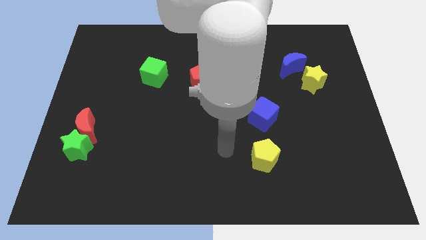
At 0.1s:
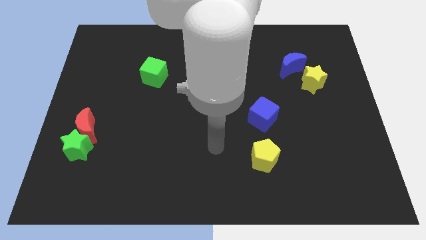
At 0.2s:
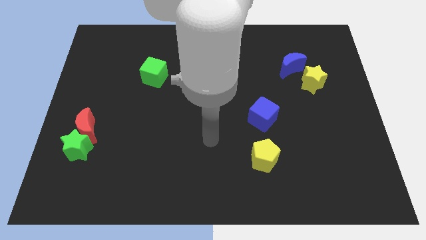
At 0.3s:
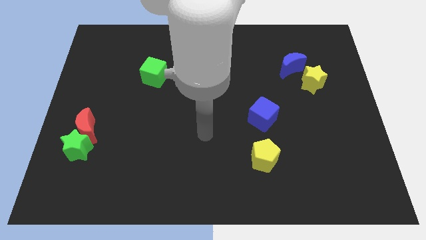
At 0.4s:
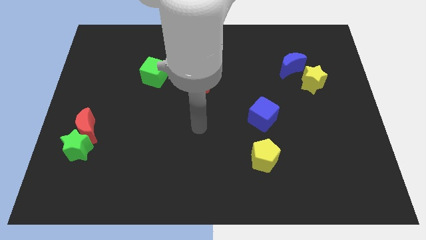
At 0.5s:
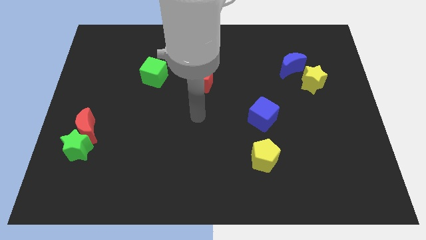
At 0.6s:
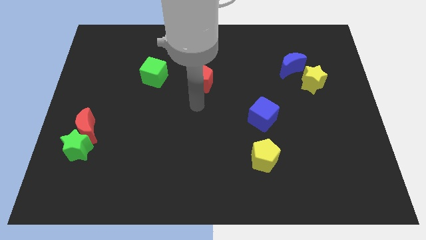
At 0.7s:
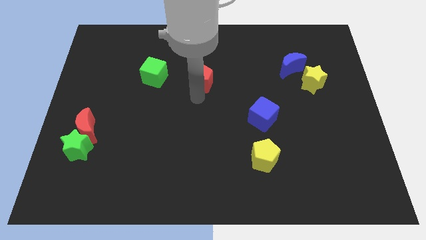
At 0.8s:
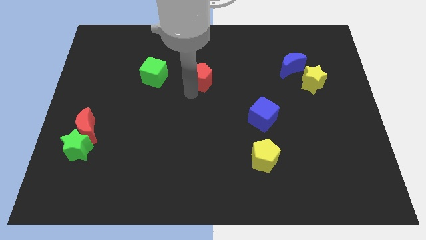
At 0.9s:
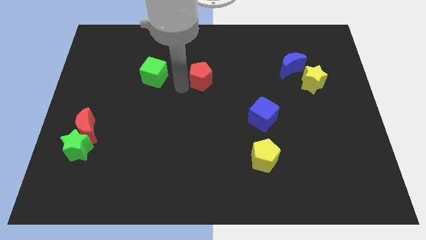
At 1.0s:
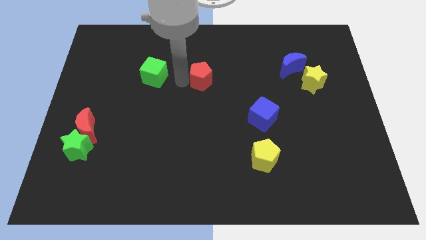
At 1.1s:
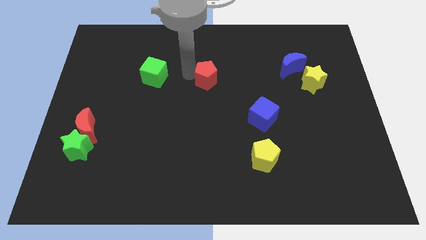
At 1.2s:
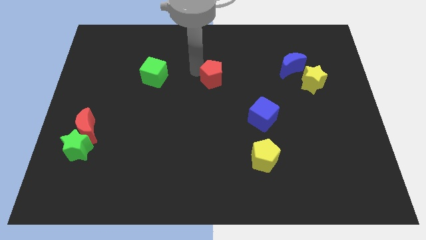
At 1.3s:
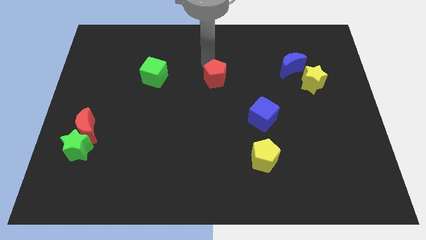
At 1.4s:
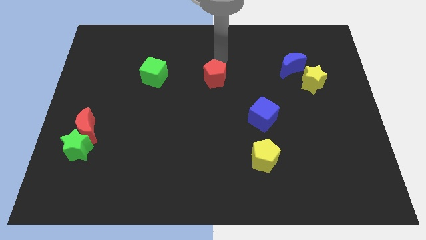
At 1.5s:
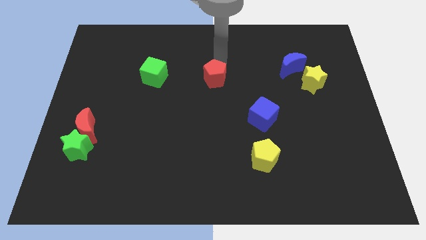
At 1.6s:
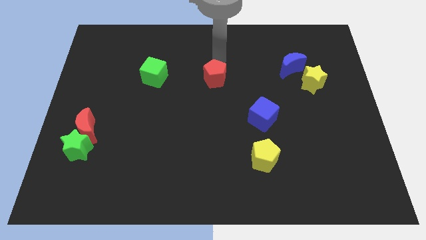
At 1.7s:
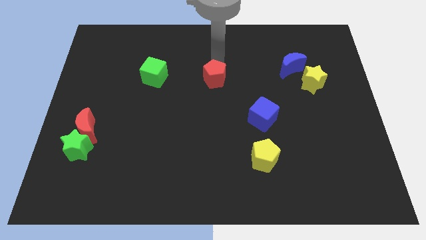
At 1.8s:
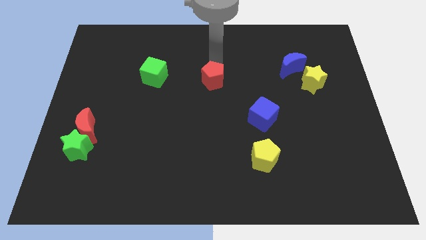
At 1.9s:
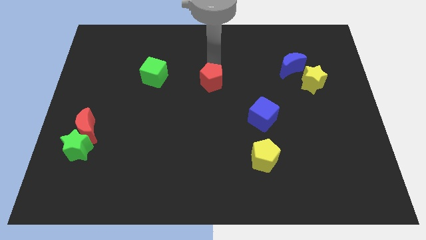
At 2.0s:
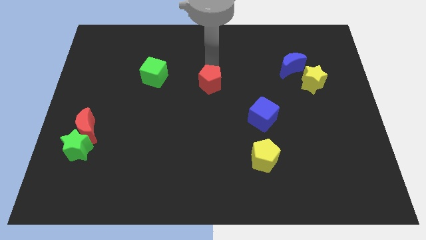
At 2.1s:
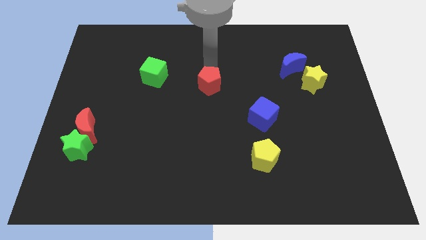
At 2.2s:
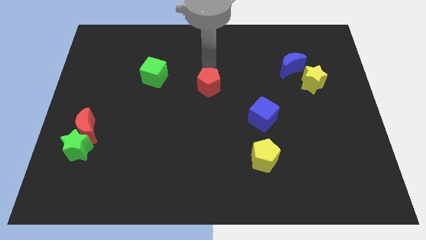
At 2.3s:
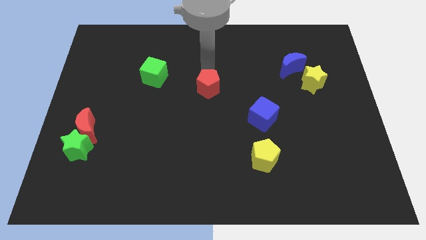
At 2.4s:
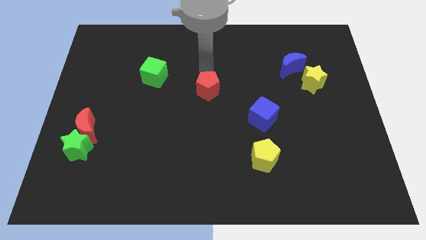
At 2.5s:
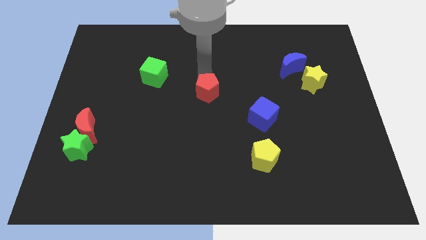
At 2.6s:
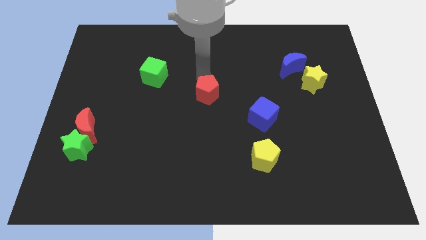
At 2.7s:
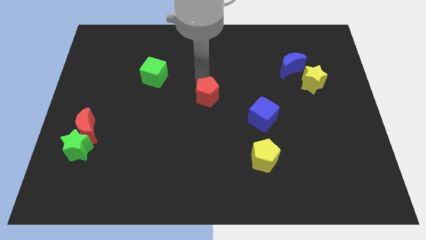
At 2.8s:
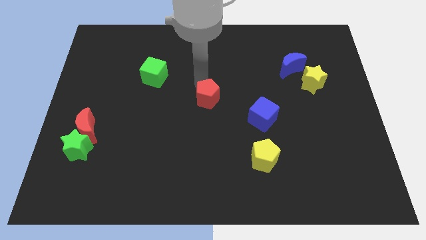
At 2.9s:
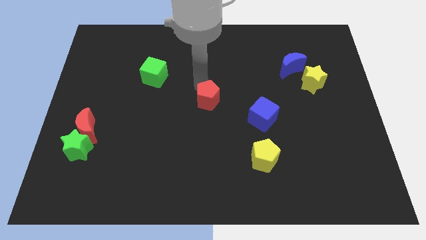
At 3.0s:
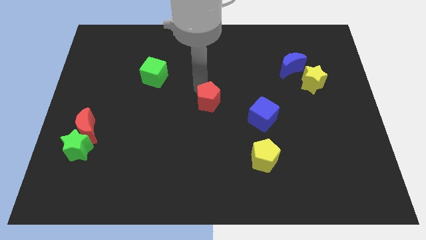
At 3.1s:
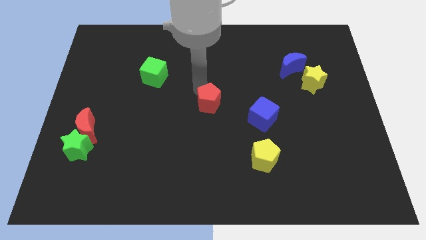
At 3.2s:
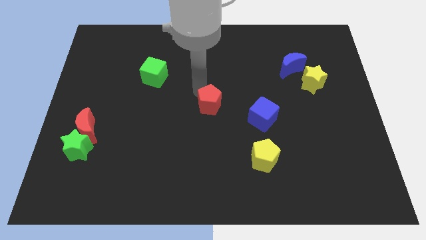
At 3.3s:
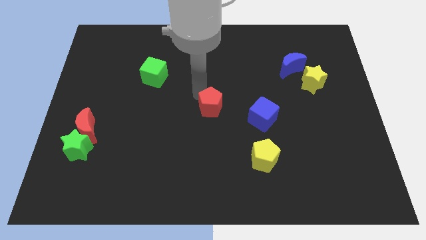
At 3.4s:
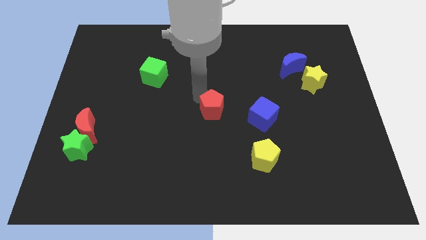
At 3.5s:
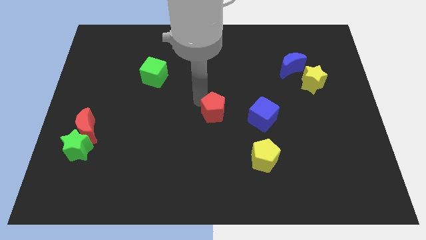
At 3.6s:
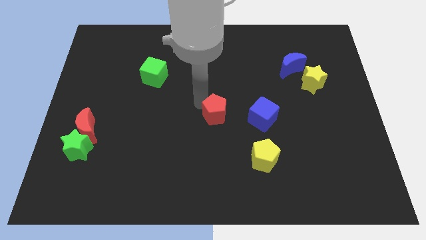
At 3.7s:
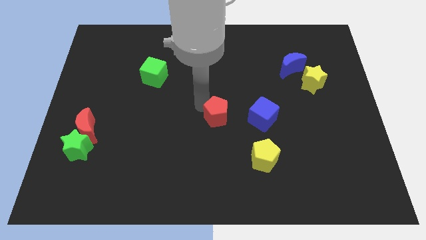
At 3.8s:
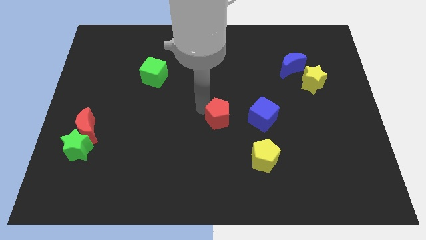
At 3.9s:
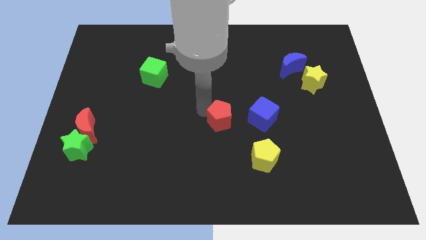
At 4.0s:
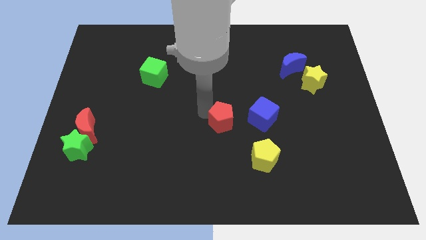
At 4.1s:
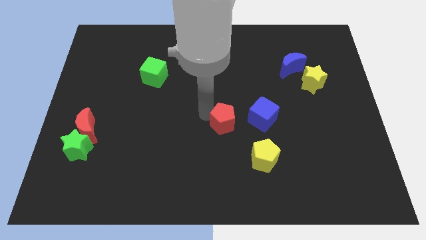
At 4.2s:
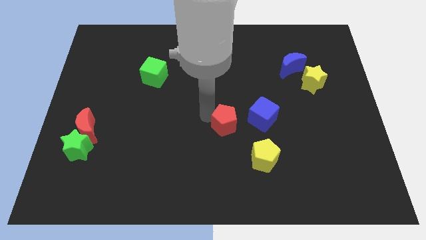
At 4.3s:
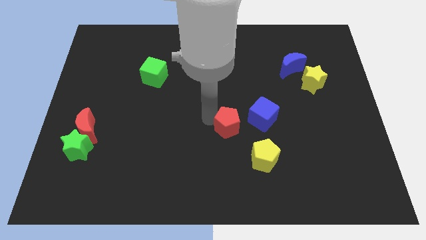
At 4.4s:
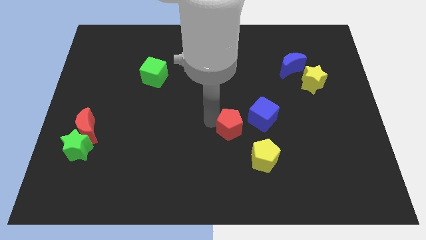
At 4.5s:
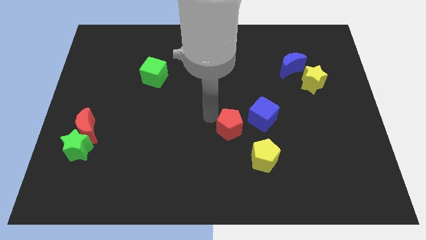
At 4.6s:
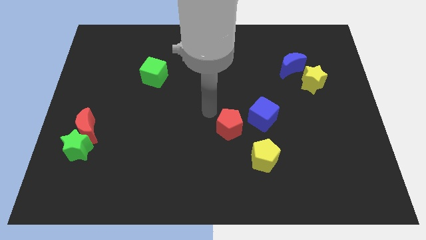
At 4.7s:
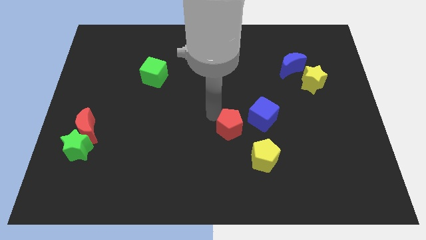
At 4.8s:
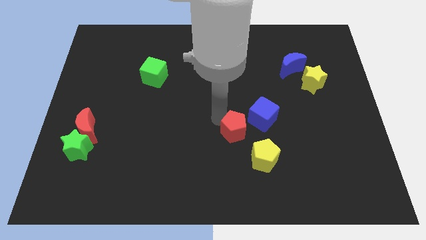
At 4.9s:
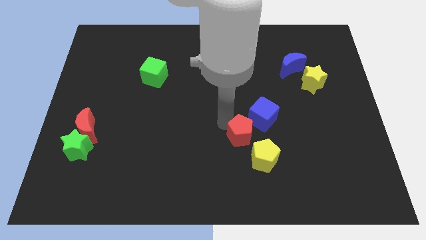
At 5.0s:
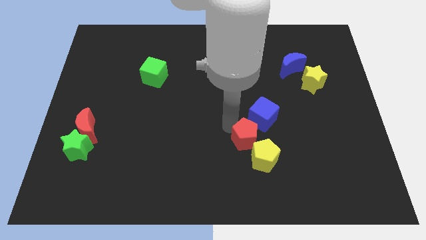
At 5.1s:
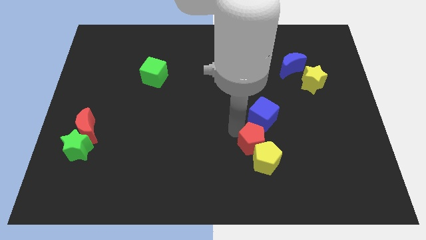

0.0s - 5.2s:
move the red pentagon next to the yellow pentagon

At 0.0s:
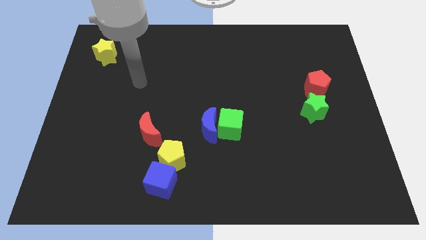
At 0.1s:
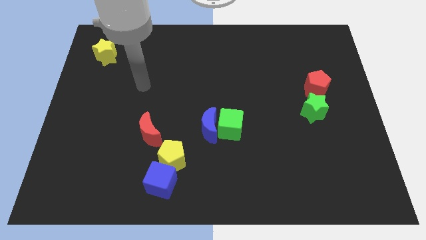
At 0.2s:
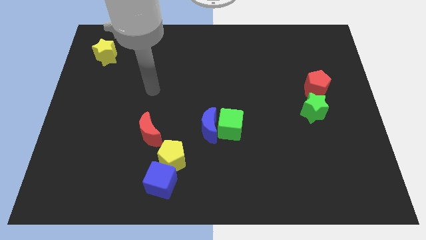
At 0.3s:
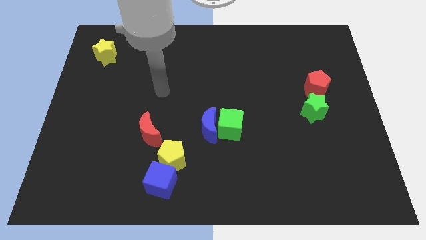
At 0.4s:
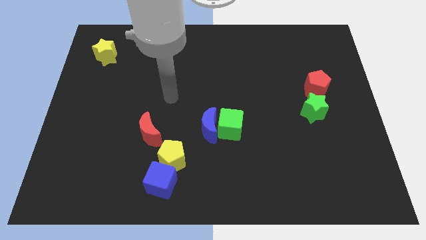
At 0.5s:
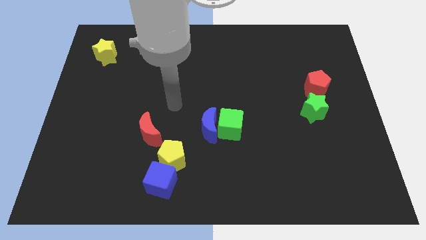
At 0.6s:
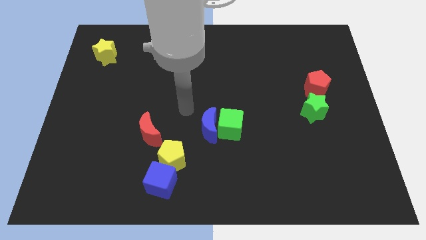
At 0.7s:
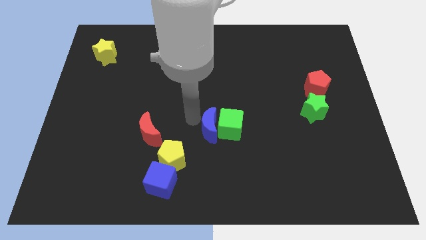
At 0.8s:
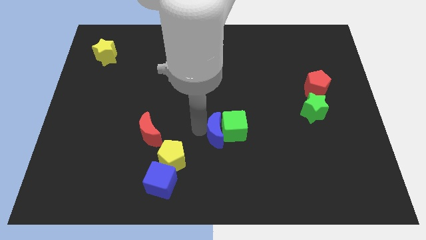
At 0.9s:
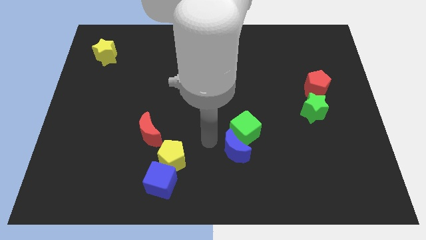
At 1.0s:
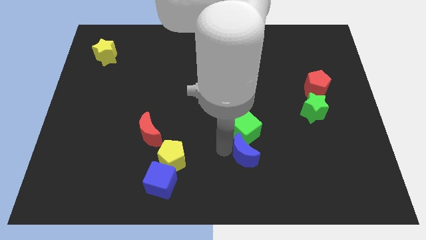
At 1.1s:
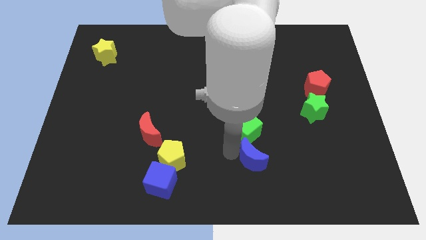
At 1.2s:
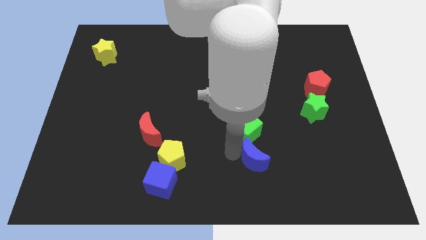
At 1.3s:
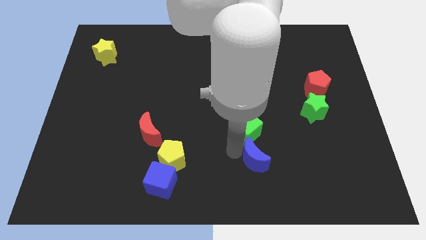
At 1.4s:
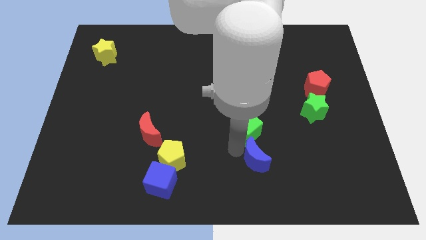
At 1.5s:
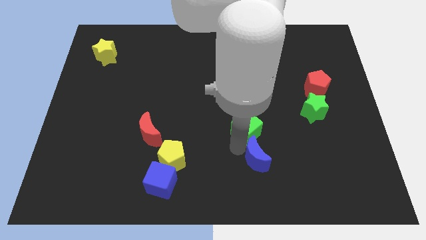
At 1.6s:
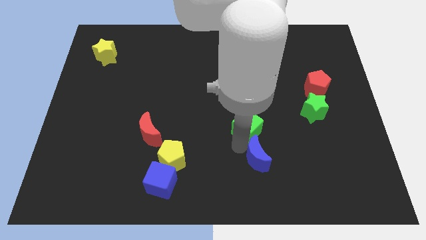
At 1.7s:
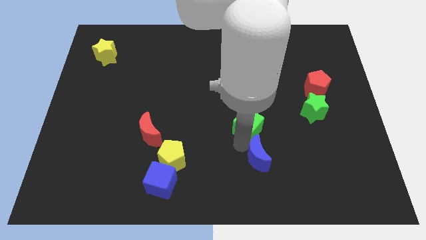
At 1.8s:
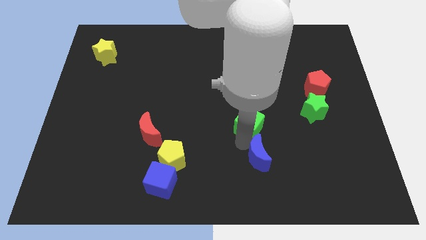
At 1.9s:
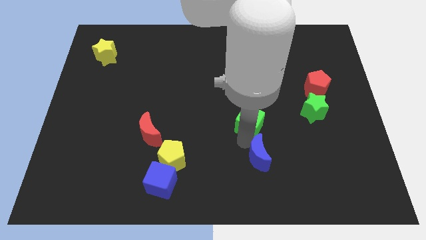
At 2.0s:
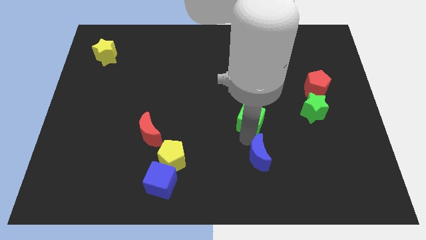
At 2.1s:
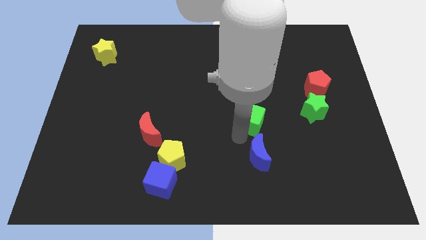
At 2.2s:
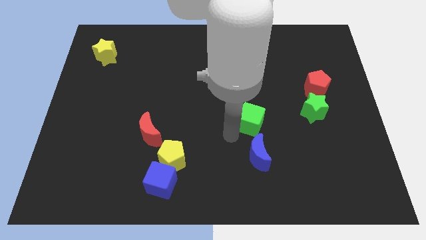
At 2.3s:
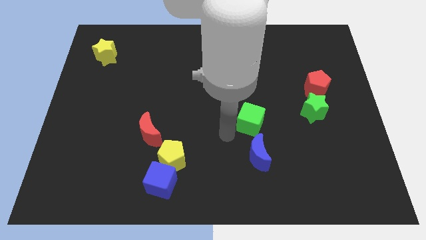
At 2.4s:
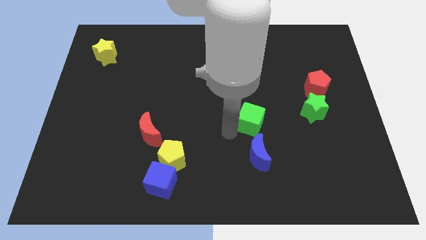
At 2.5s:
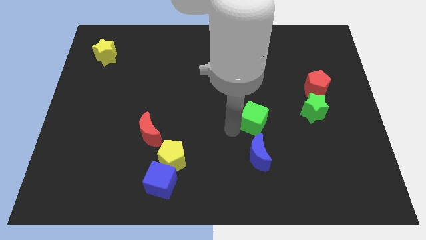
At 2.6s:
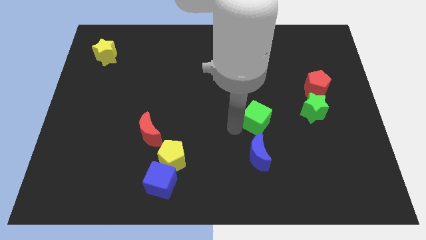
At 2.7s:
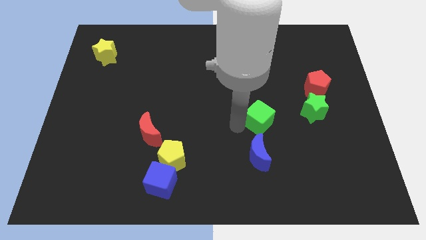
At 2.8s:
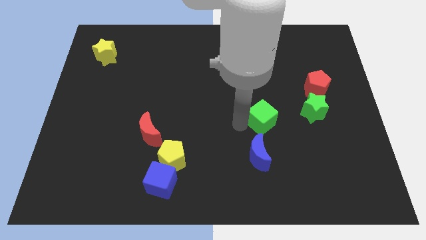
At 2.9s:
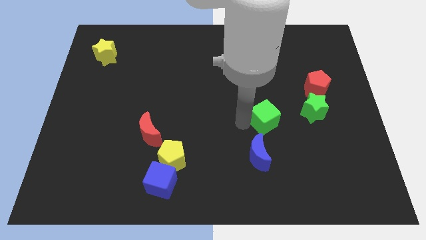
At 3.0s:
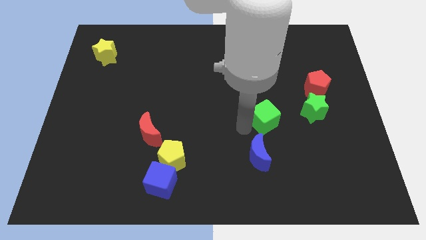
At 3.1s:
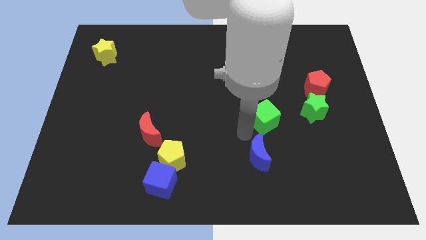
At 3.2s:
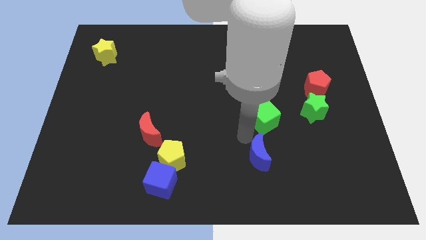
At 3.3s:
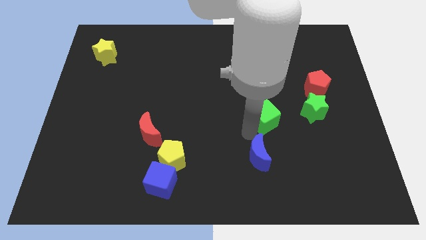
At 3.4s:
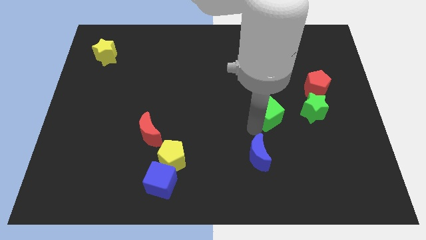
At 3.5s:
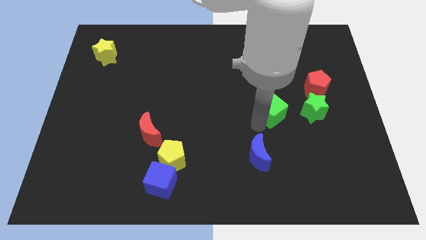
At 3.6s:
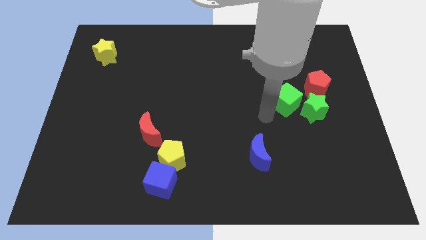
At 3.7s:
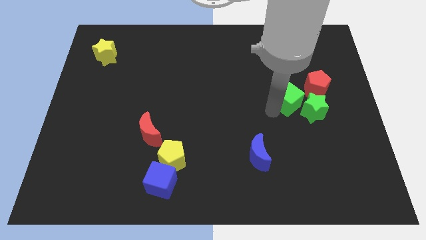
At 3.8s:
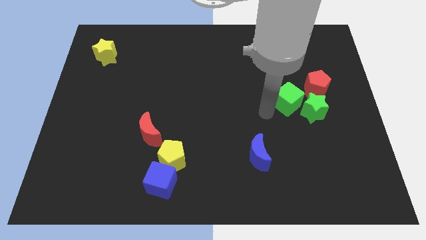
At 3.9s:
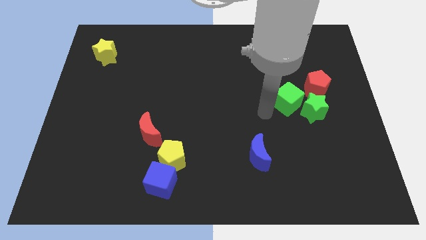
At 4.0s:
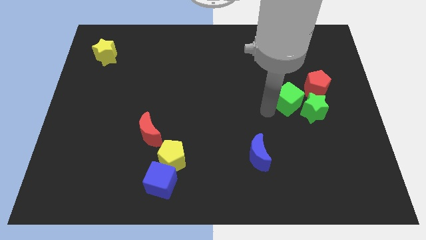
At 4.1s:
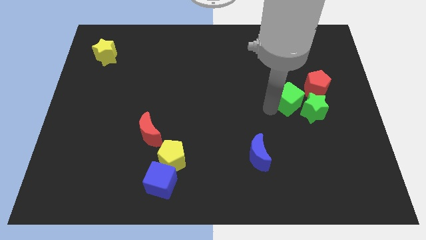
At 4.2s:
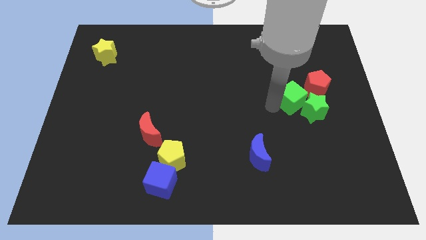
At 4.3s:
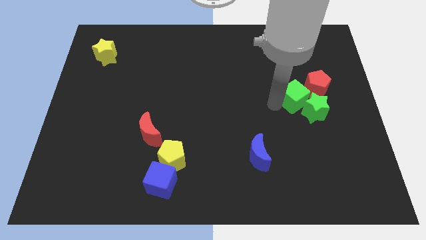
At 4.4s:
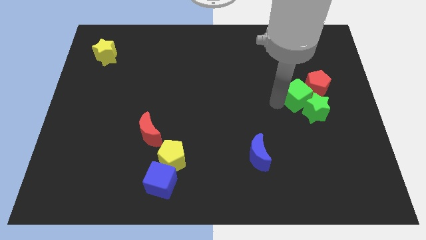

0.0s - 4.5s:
move the green cube next to the red pentagon
